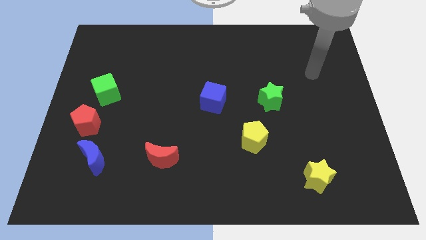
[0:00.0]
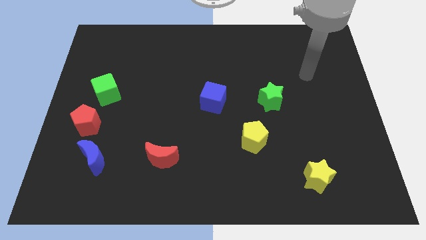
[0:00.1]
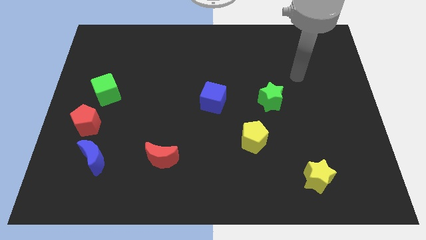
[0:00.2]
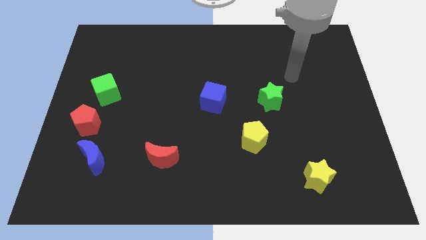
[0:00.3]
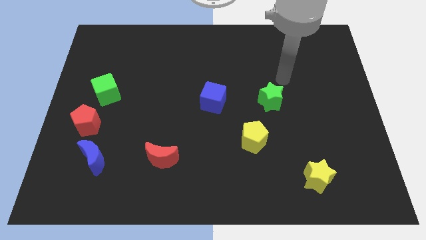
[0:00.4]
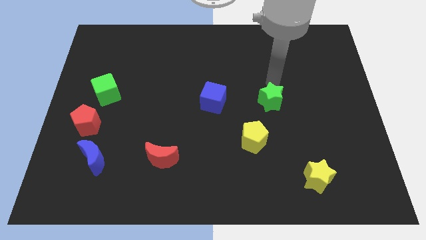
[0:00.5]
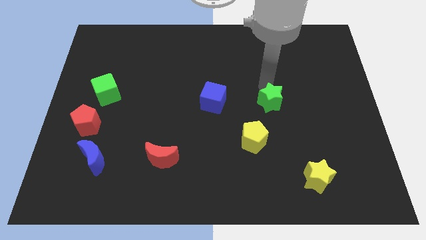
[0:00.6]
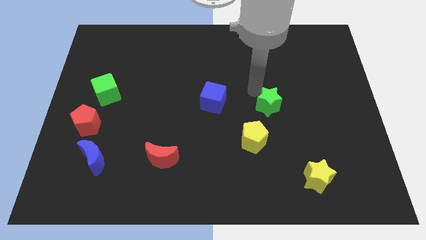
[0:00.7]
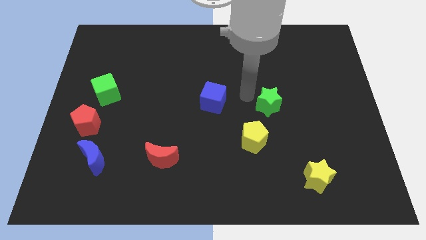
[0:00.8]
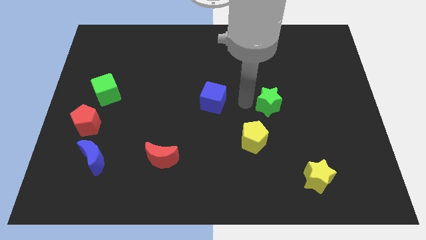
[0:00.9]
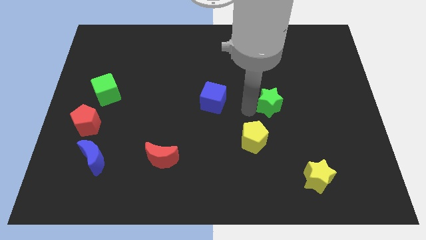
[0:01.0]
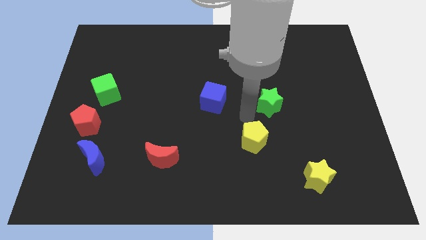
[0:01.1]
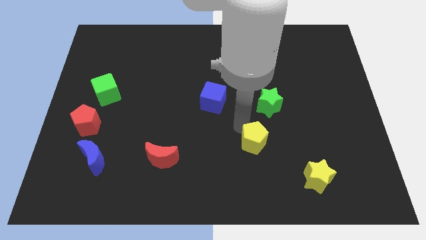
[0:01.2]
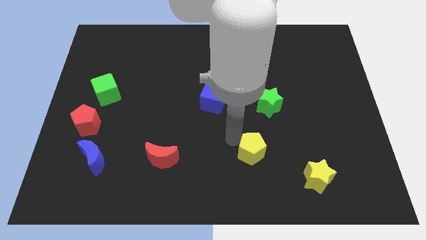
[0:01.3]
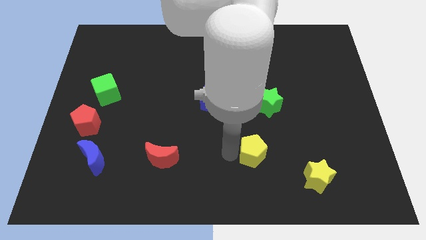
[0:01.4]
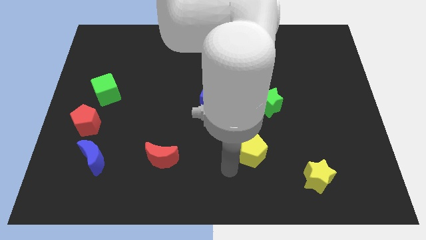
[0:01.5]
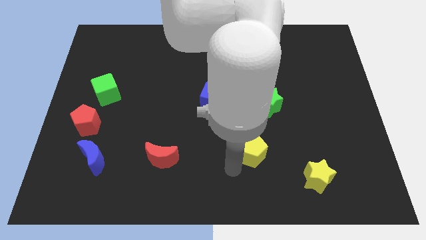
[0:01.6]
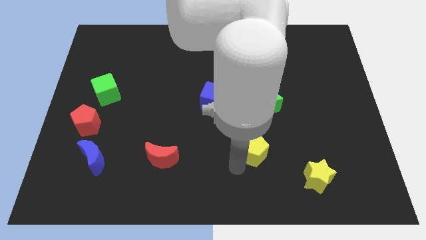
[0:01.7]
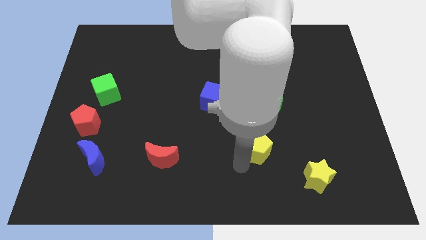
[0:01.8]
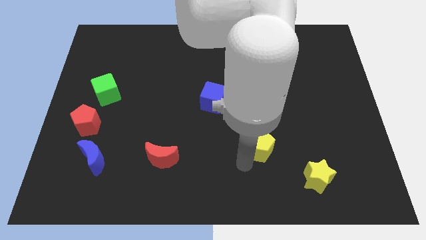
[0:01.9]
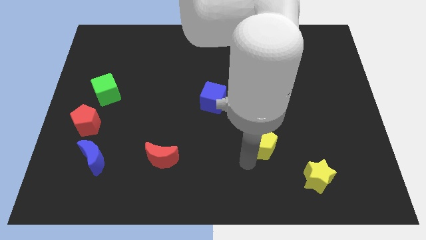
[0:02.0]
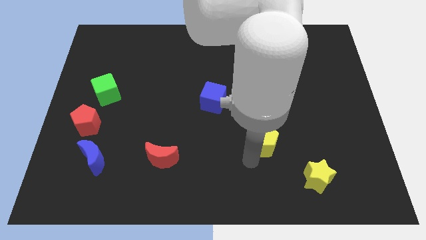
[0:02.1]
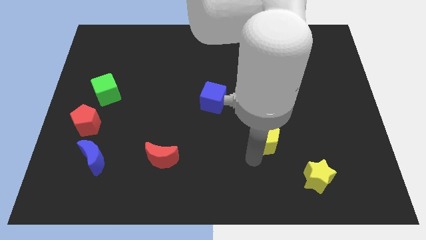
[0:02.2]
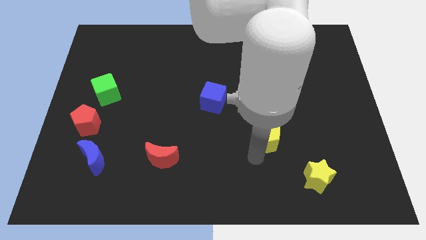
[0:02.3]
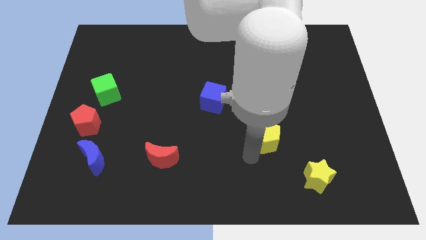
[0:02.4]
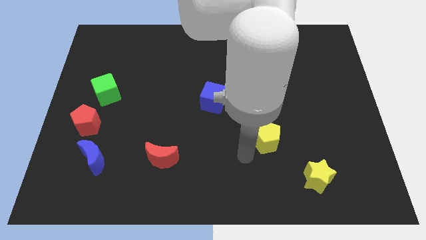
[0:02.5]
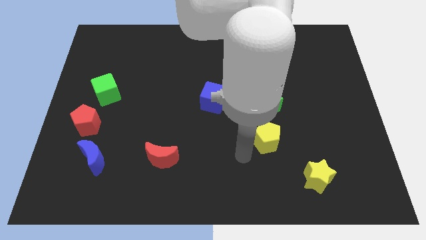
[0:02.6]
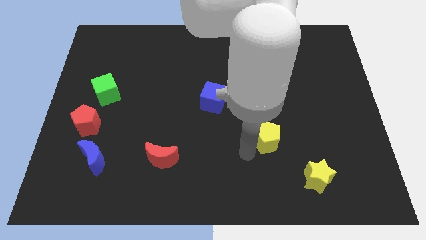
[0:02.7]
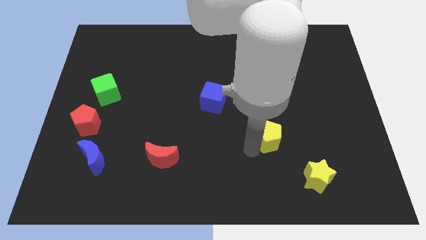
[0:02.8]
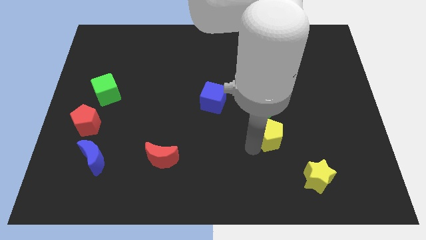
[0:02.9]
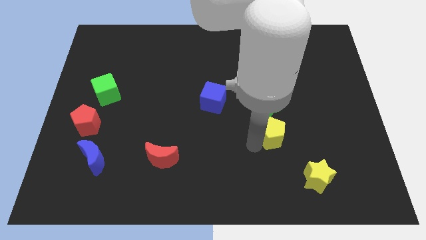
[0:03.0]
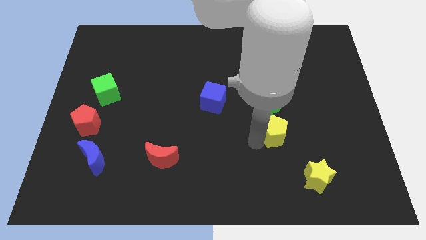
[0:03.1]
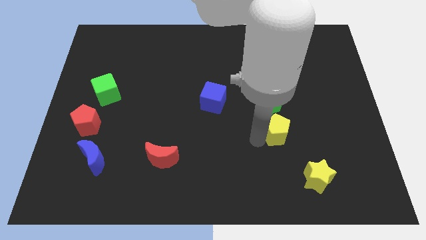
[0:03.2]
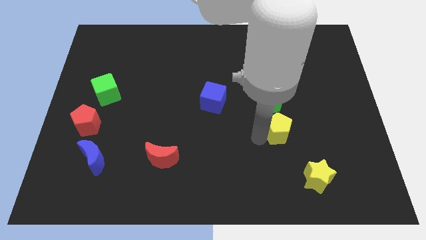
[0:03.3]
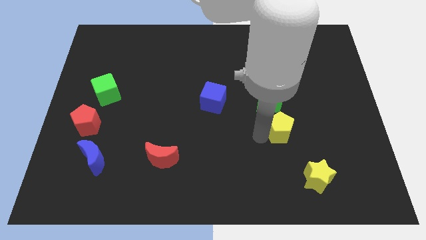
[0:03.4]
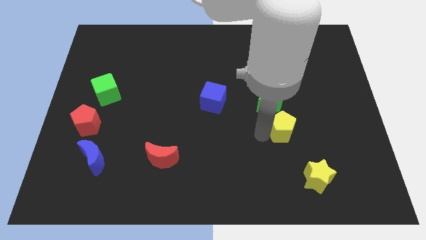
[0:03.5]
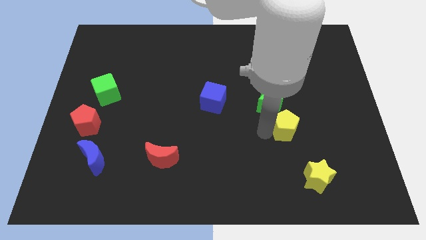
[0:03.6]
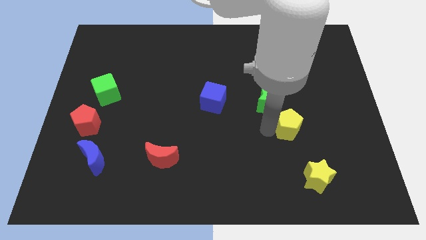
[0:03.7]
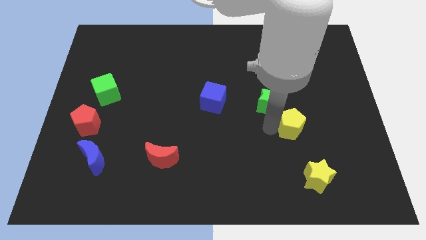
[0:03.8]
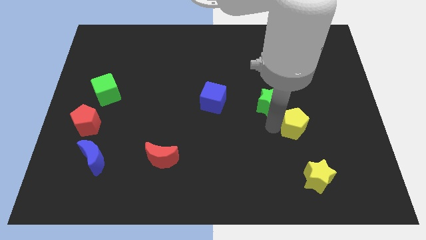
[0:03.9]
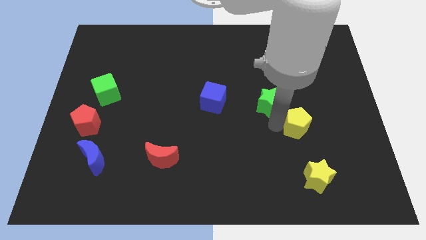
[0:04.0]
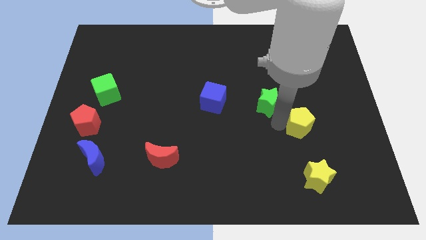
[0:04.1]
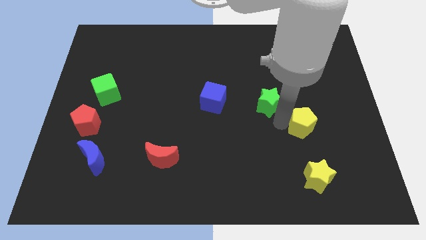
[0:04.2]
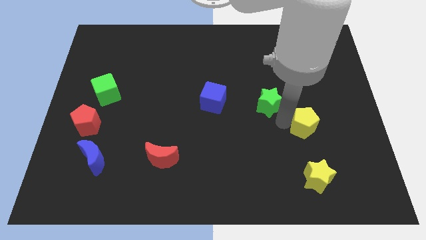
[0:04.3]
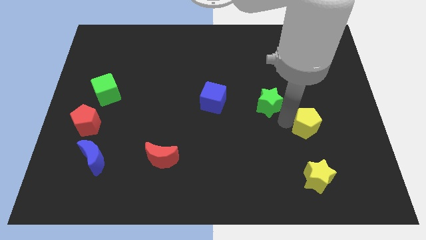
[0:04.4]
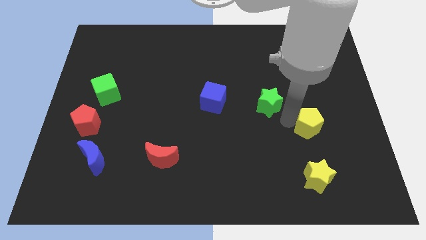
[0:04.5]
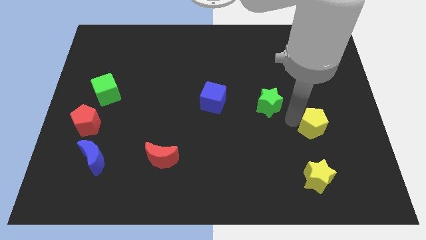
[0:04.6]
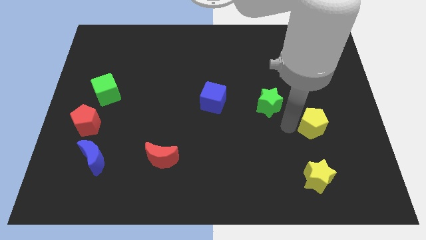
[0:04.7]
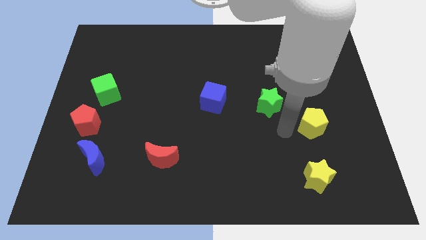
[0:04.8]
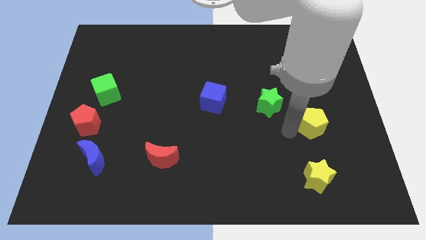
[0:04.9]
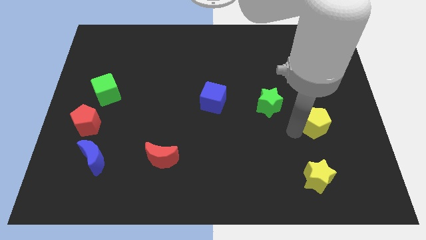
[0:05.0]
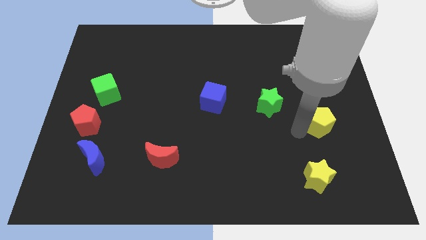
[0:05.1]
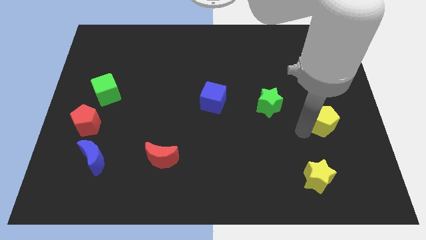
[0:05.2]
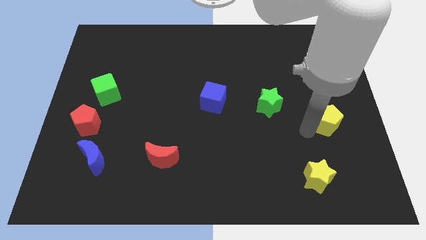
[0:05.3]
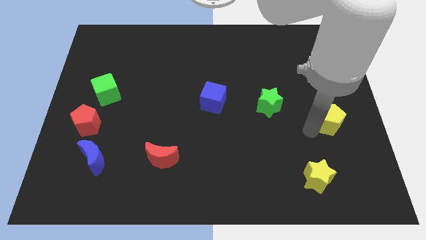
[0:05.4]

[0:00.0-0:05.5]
put the yellow pentagon to the right side of the board

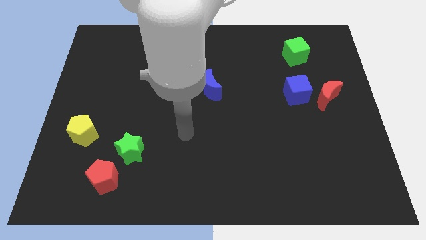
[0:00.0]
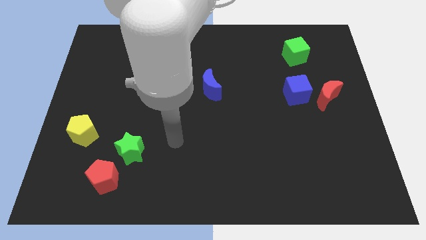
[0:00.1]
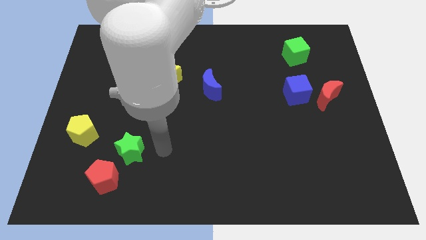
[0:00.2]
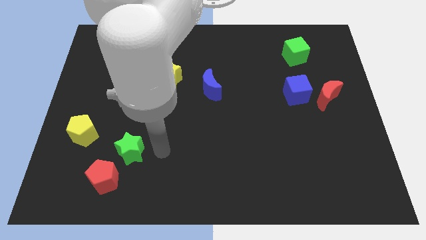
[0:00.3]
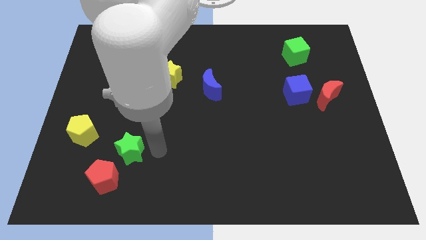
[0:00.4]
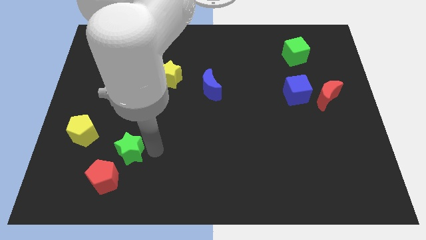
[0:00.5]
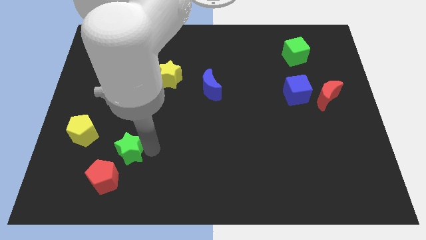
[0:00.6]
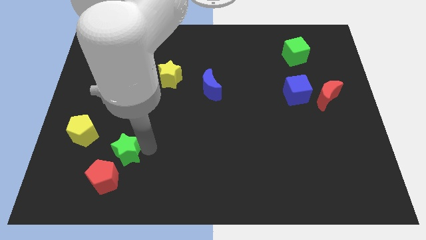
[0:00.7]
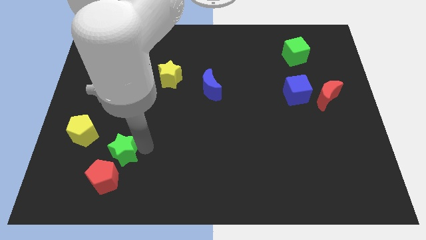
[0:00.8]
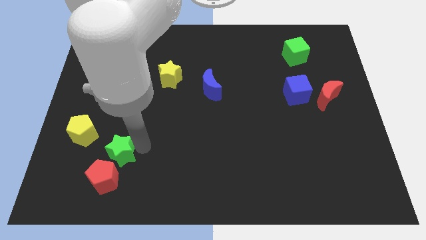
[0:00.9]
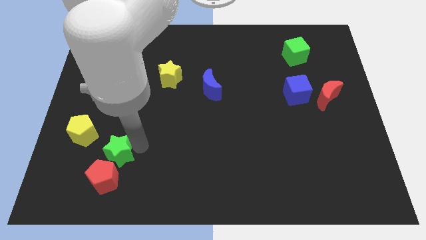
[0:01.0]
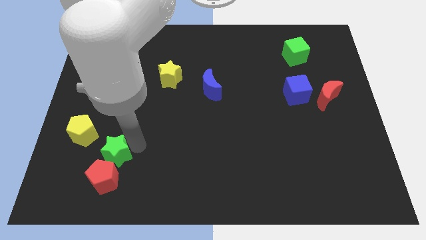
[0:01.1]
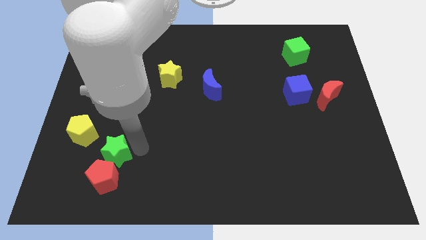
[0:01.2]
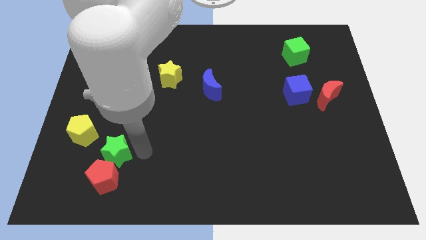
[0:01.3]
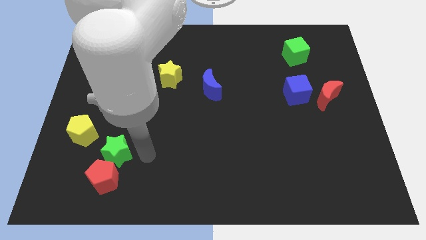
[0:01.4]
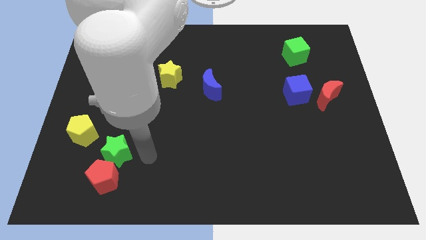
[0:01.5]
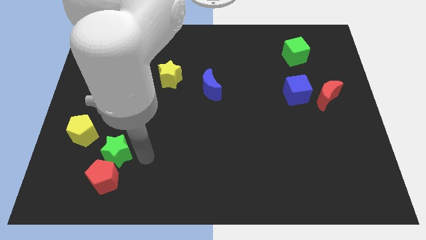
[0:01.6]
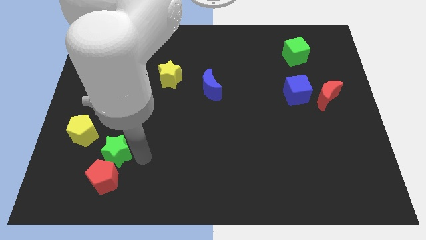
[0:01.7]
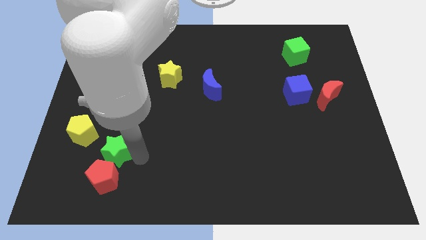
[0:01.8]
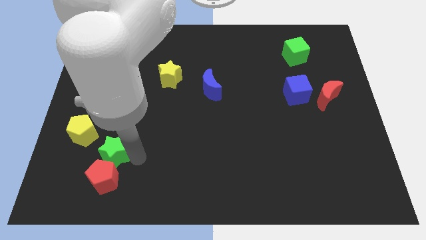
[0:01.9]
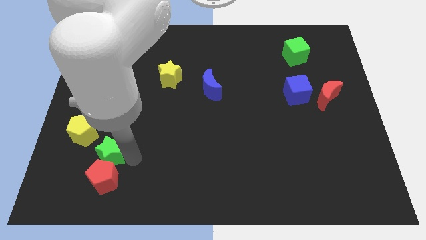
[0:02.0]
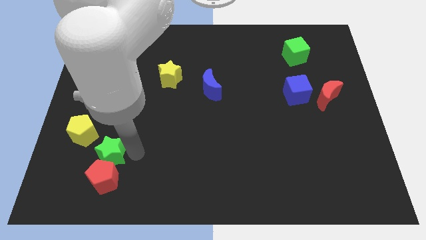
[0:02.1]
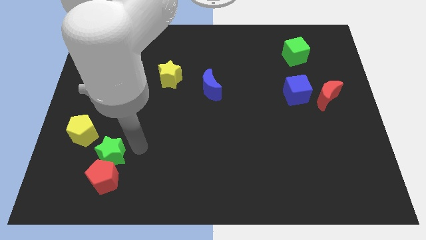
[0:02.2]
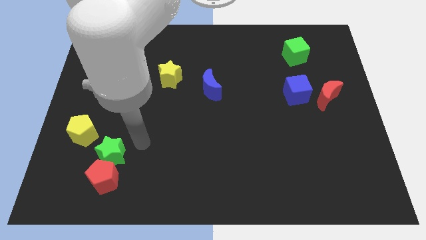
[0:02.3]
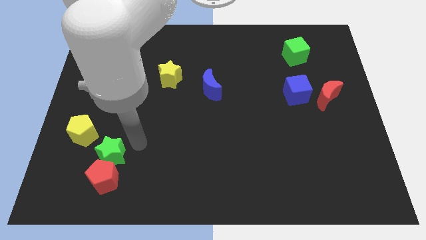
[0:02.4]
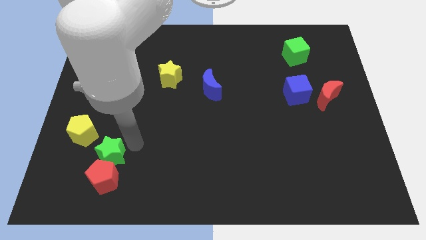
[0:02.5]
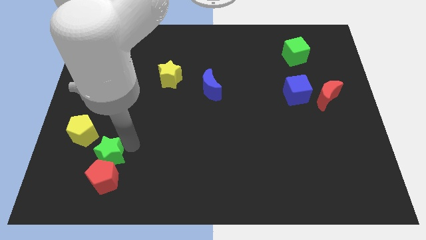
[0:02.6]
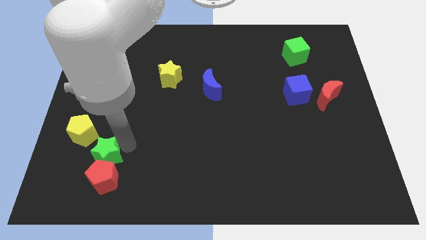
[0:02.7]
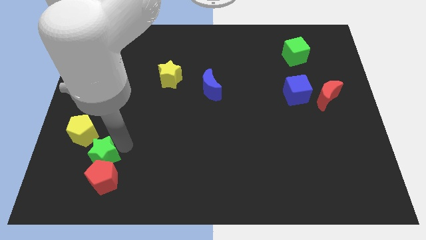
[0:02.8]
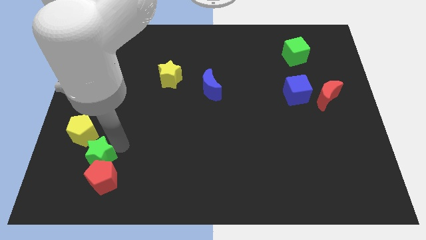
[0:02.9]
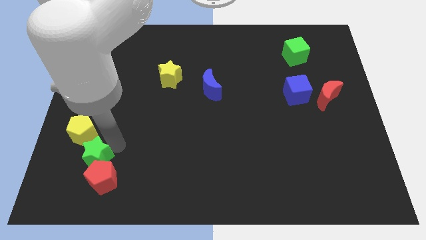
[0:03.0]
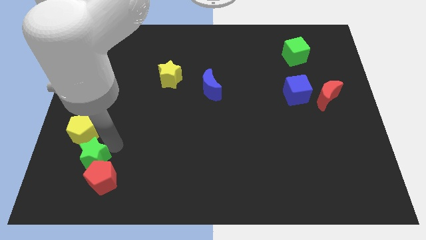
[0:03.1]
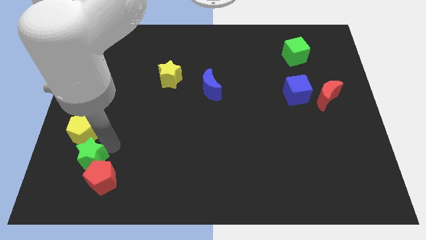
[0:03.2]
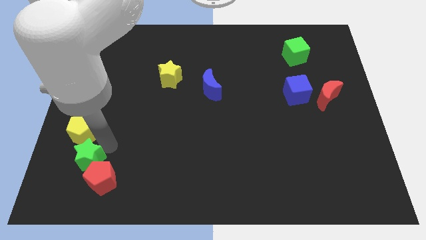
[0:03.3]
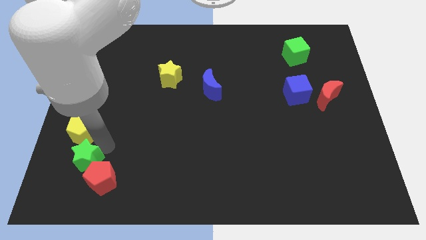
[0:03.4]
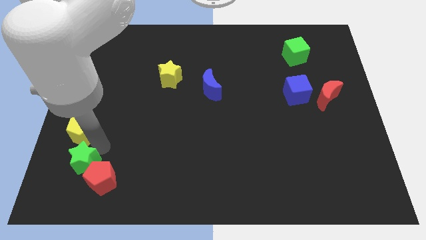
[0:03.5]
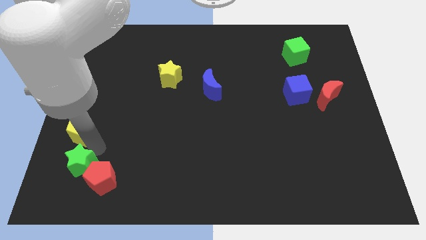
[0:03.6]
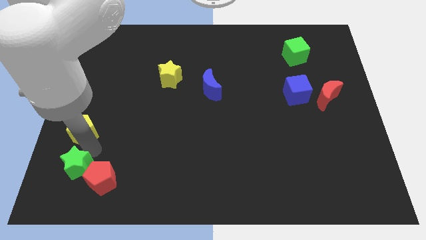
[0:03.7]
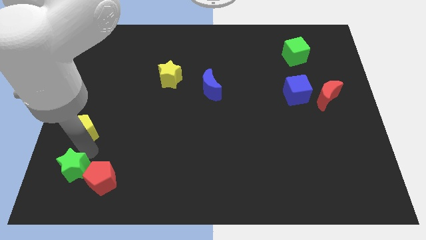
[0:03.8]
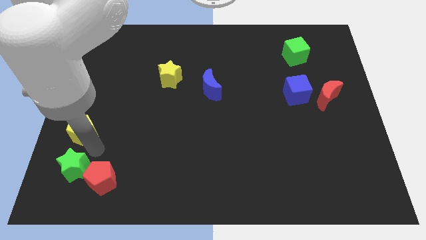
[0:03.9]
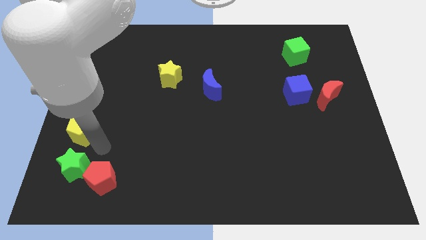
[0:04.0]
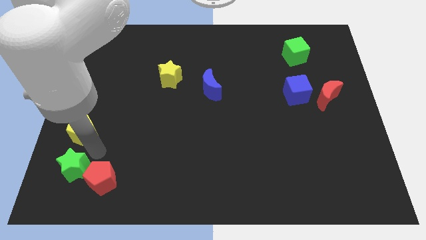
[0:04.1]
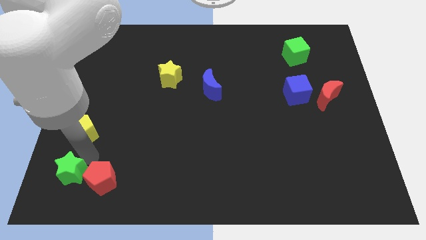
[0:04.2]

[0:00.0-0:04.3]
slide the green star to the bottom left corner
